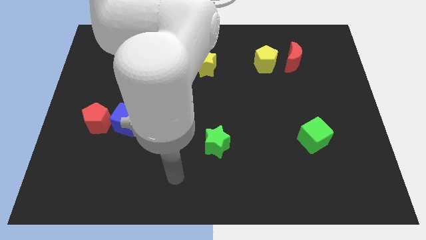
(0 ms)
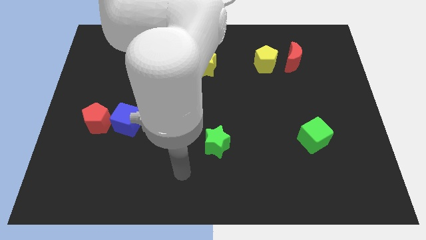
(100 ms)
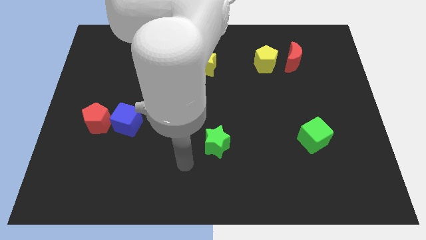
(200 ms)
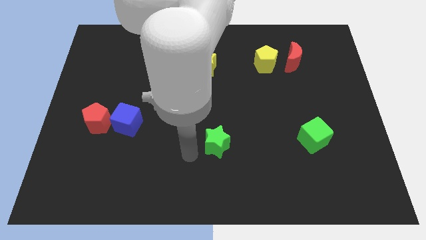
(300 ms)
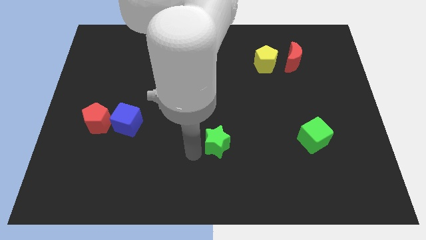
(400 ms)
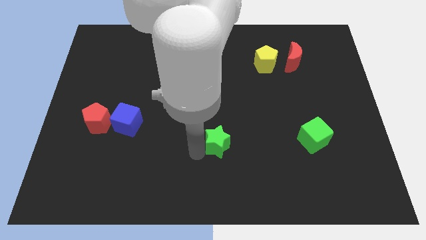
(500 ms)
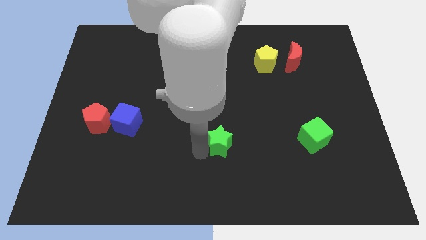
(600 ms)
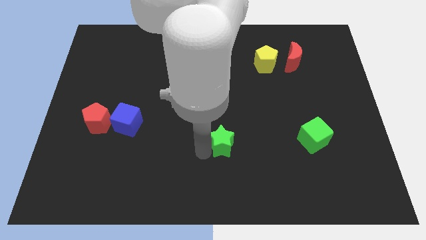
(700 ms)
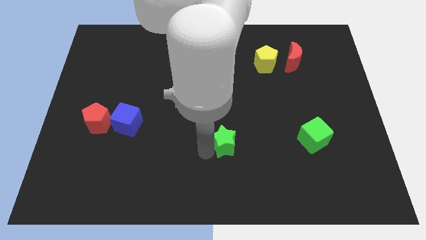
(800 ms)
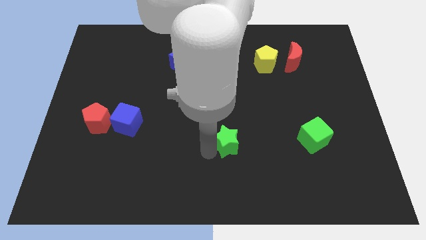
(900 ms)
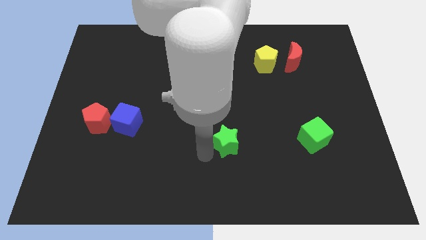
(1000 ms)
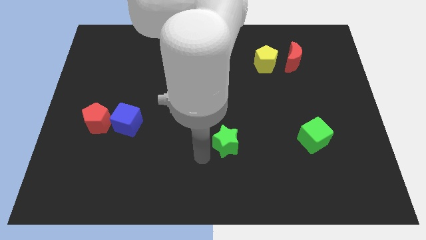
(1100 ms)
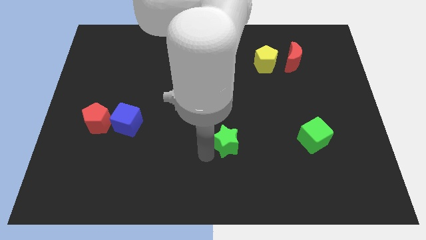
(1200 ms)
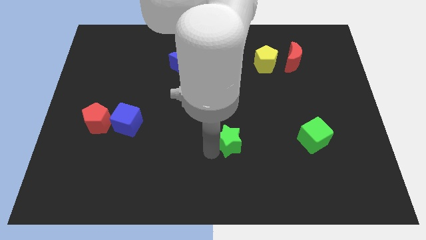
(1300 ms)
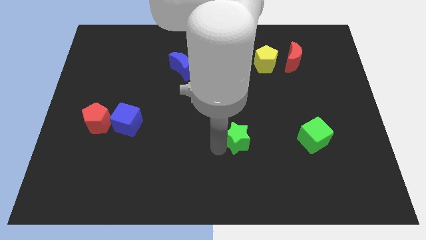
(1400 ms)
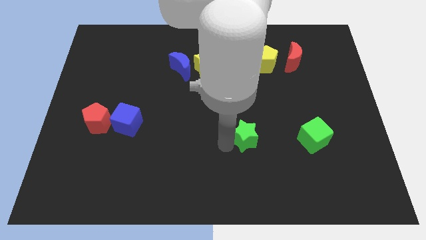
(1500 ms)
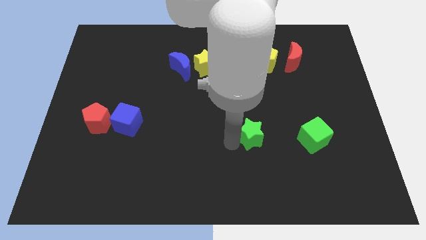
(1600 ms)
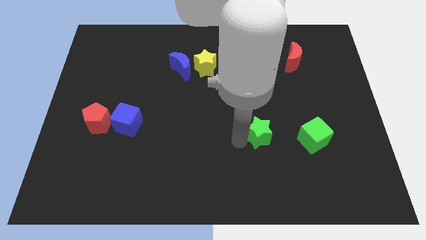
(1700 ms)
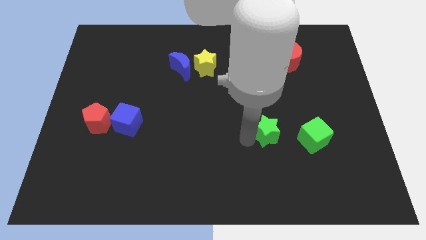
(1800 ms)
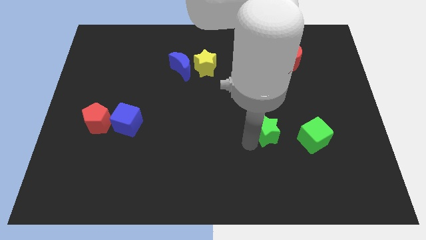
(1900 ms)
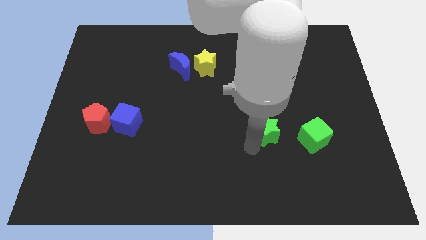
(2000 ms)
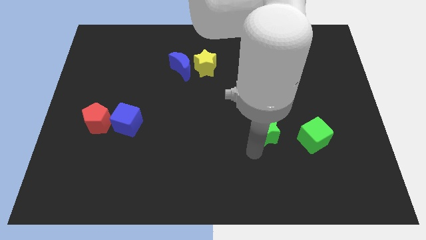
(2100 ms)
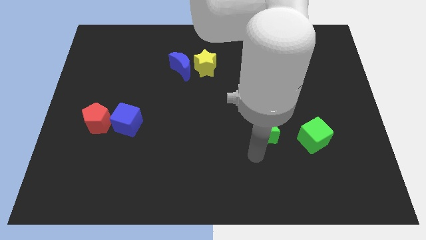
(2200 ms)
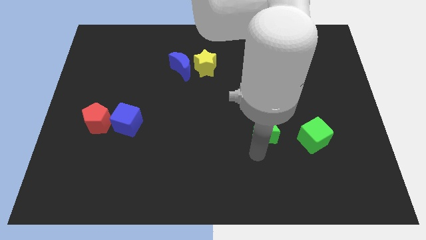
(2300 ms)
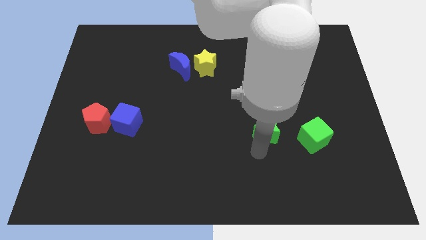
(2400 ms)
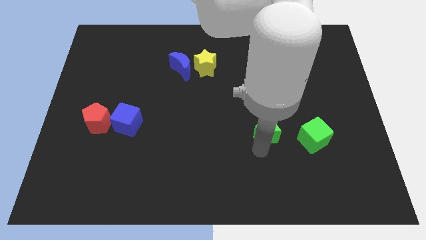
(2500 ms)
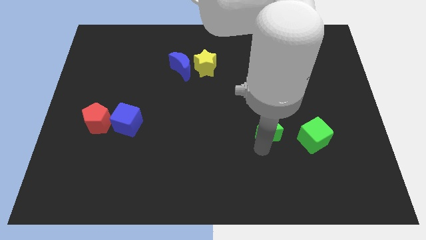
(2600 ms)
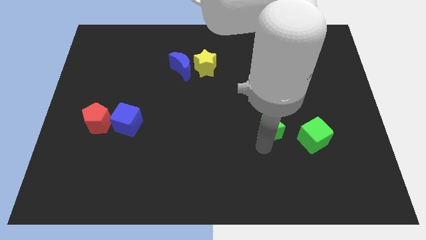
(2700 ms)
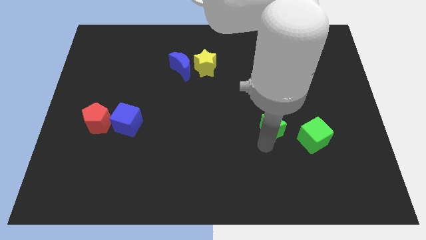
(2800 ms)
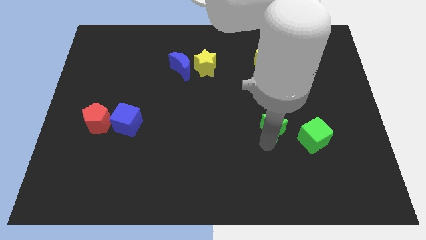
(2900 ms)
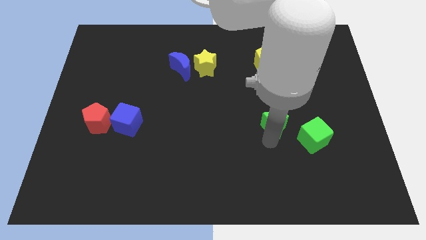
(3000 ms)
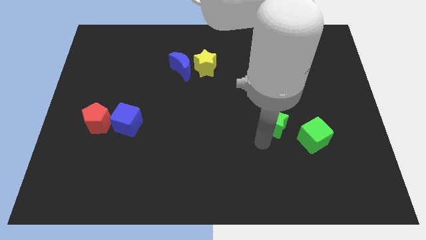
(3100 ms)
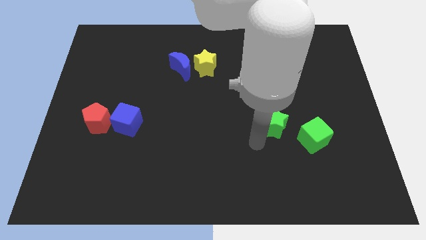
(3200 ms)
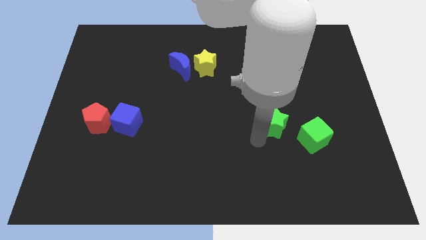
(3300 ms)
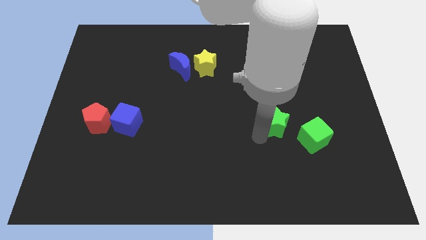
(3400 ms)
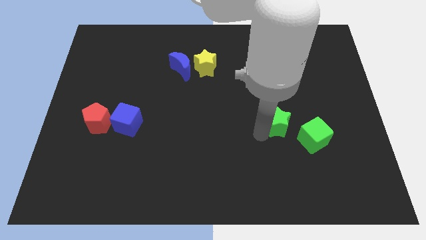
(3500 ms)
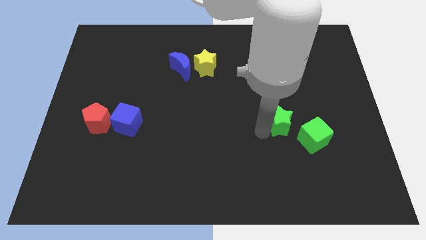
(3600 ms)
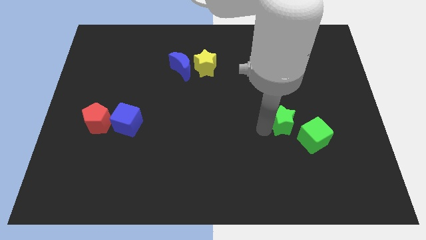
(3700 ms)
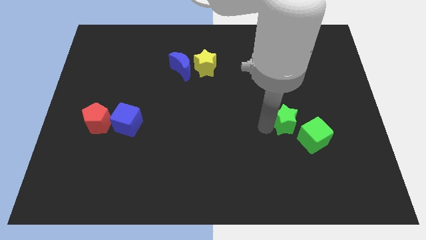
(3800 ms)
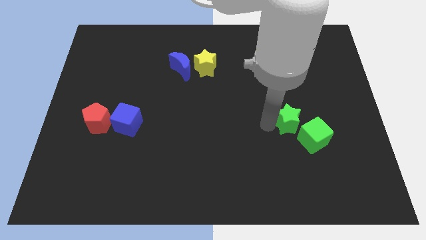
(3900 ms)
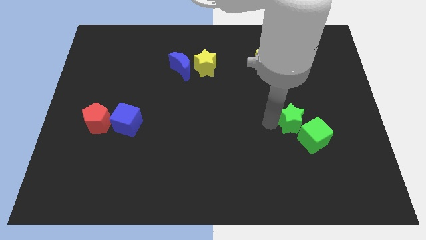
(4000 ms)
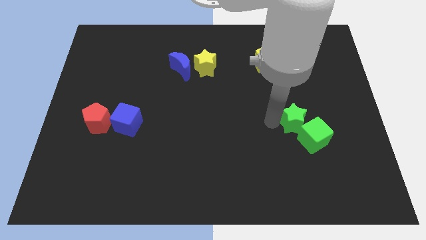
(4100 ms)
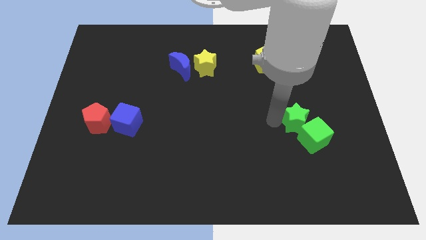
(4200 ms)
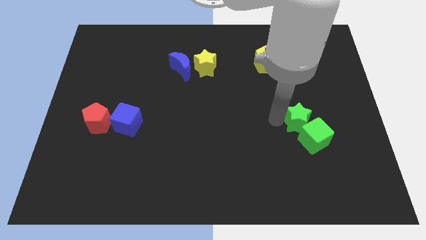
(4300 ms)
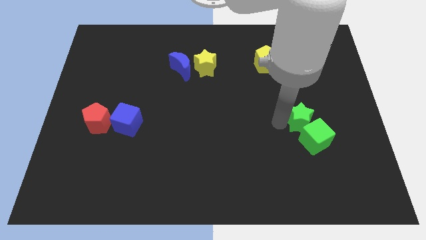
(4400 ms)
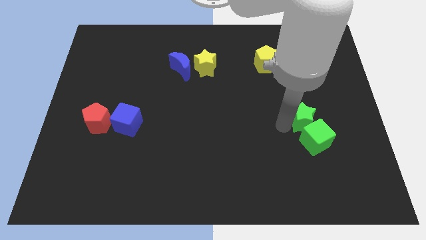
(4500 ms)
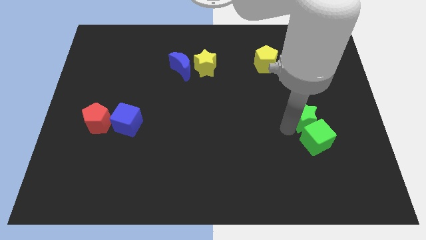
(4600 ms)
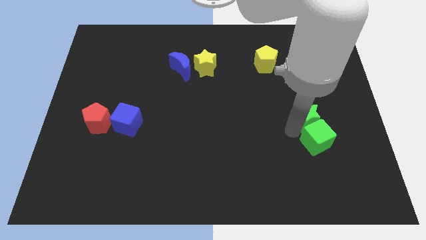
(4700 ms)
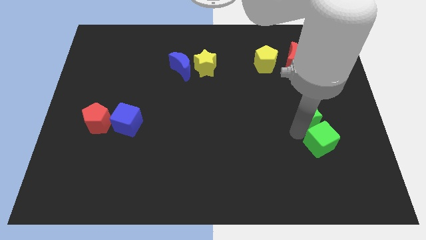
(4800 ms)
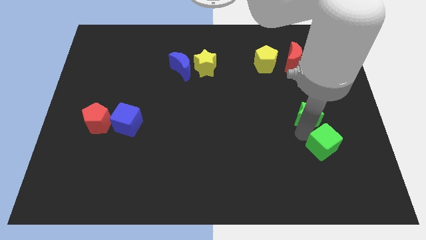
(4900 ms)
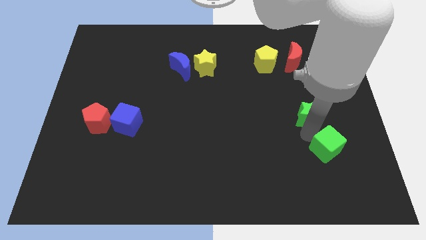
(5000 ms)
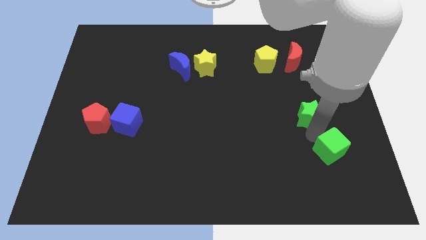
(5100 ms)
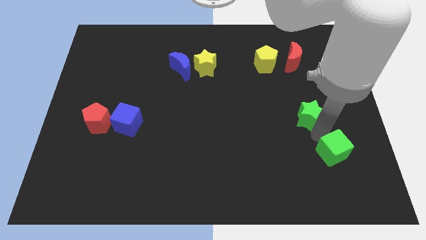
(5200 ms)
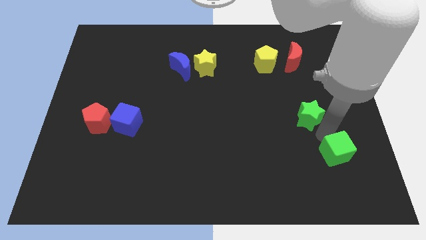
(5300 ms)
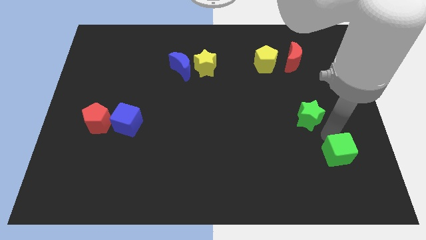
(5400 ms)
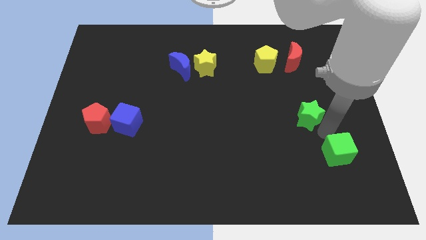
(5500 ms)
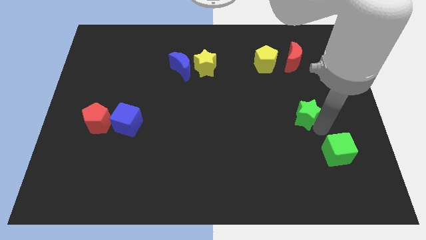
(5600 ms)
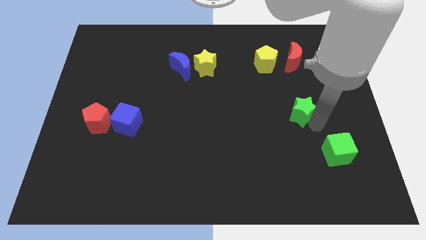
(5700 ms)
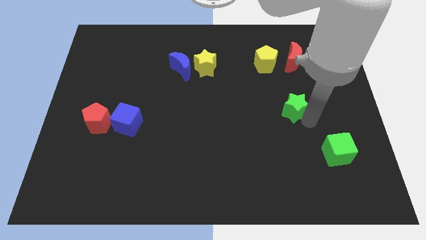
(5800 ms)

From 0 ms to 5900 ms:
move the green star to the bottom of the red moon

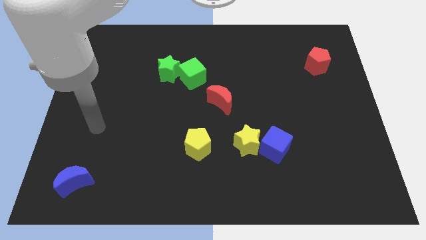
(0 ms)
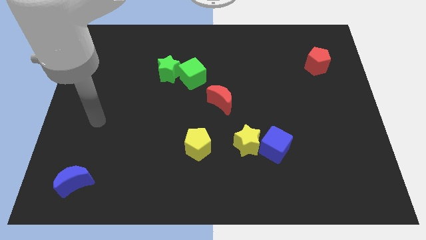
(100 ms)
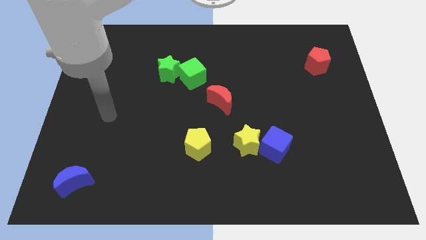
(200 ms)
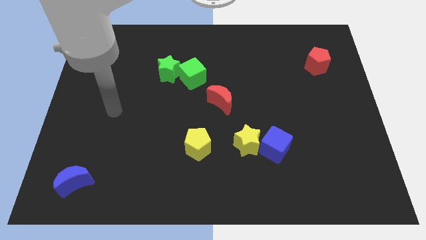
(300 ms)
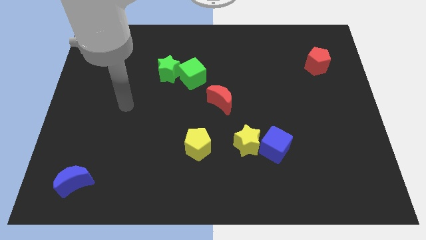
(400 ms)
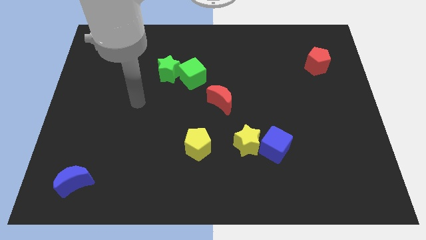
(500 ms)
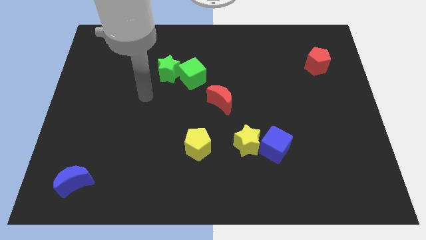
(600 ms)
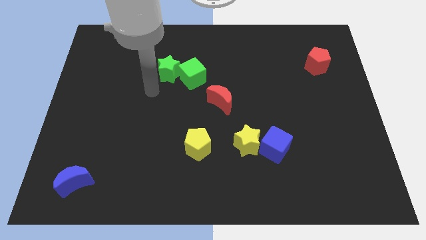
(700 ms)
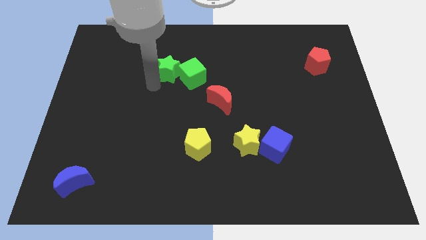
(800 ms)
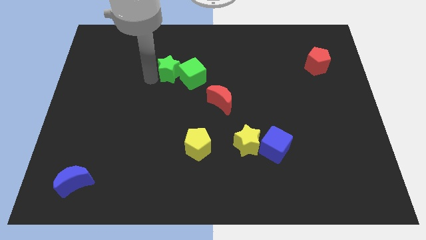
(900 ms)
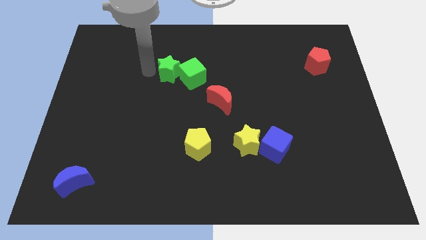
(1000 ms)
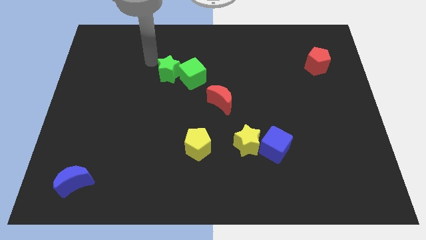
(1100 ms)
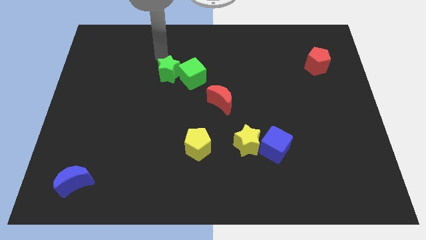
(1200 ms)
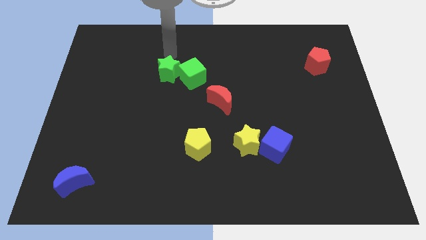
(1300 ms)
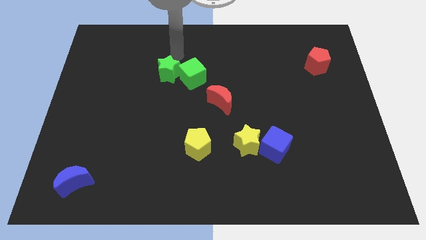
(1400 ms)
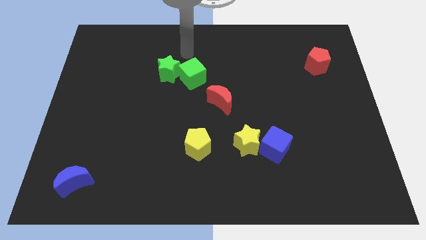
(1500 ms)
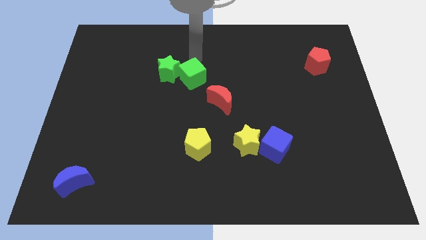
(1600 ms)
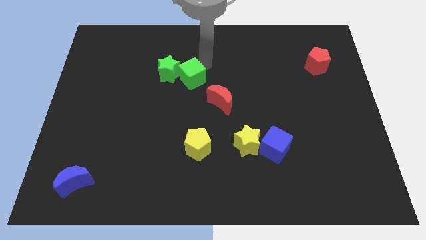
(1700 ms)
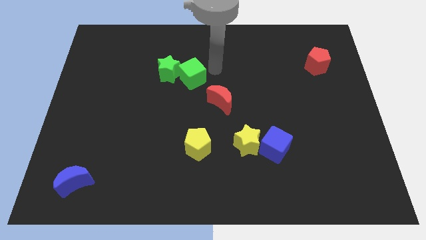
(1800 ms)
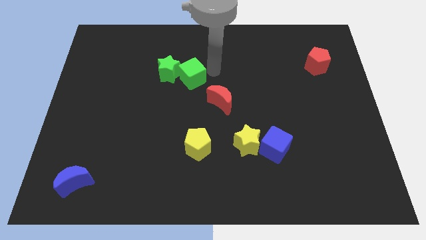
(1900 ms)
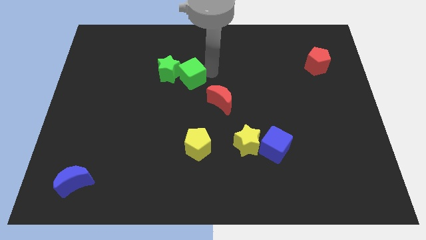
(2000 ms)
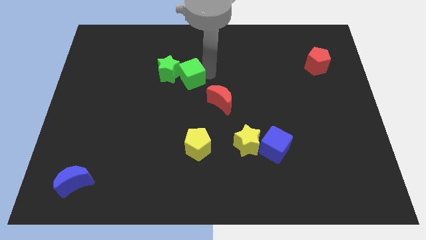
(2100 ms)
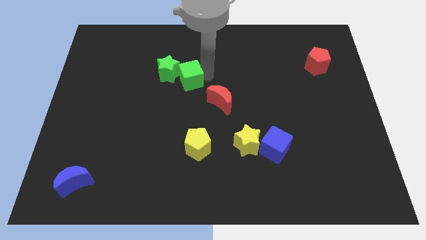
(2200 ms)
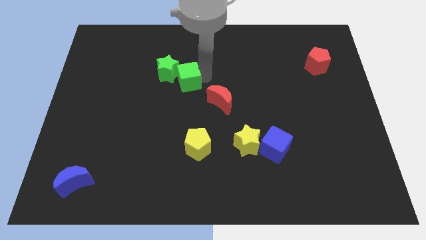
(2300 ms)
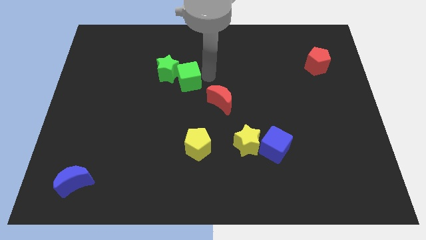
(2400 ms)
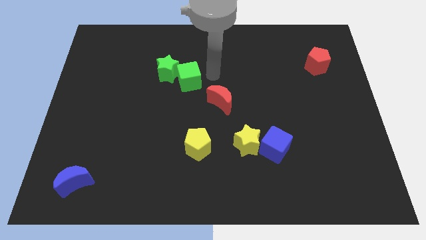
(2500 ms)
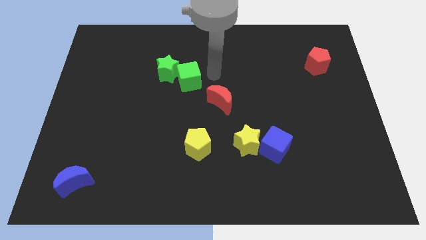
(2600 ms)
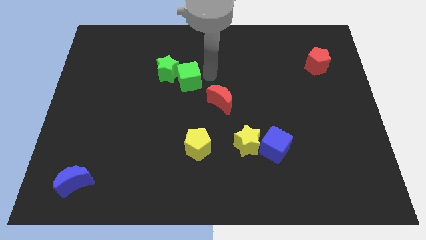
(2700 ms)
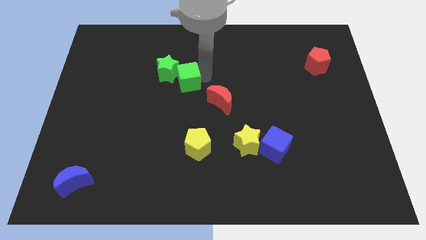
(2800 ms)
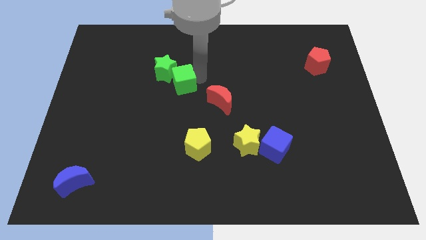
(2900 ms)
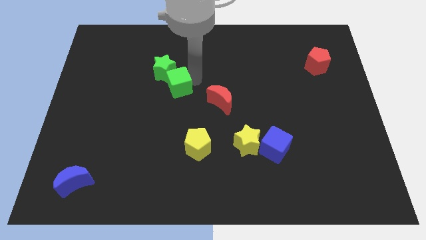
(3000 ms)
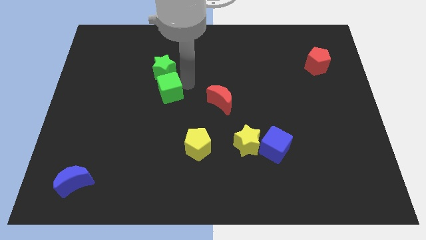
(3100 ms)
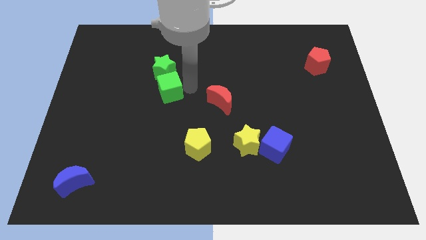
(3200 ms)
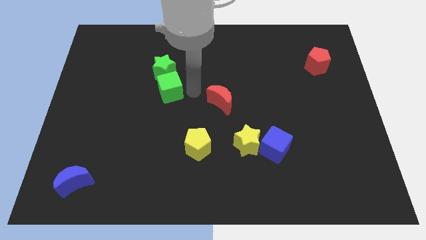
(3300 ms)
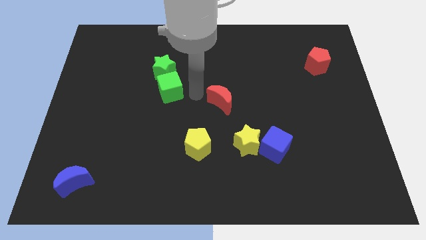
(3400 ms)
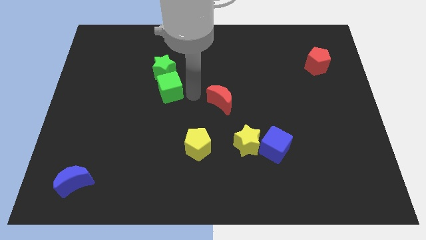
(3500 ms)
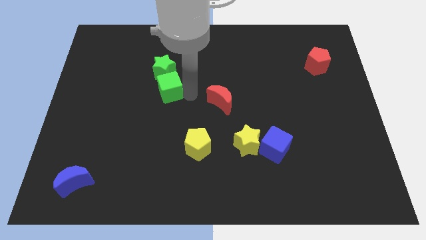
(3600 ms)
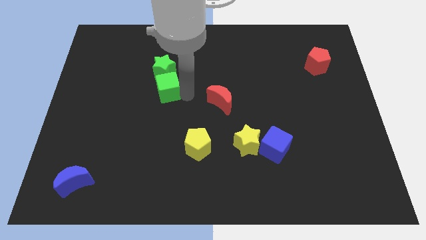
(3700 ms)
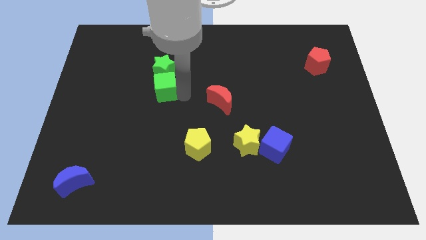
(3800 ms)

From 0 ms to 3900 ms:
slide the green cube to the bottom left side of the green star
